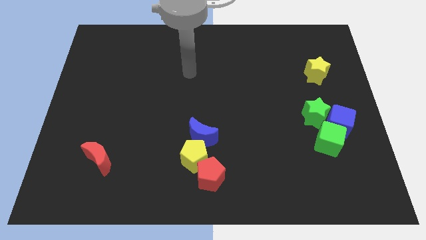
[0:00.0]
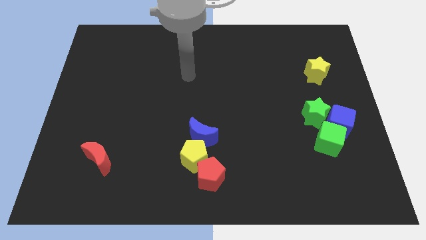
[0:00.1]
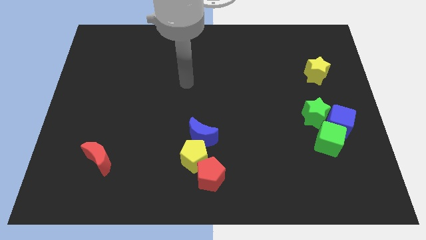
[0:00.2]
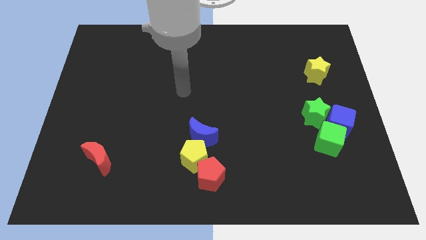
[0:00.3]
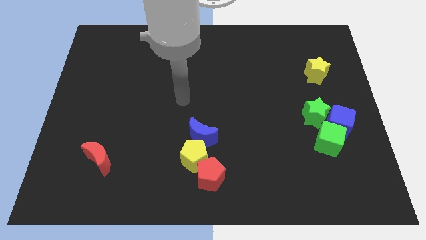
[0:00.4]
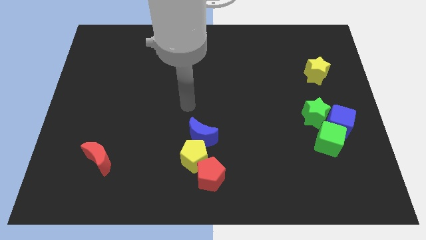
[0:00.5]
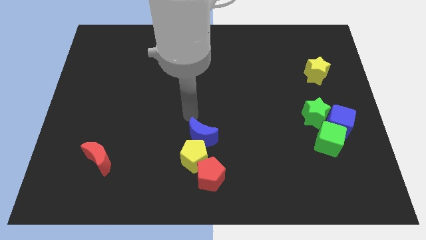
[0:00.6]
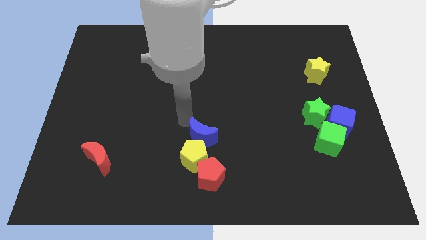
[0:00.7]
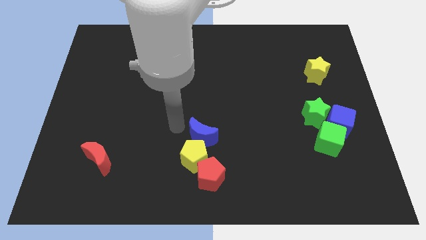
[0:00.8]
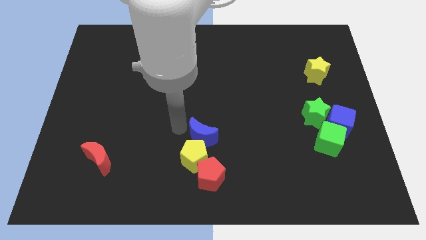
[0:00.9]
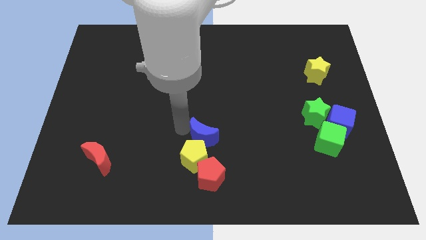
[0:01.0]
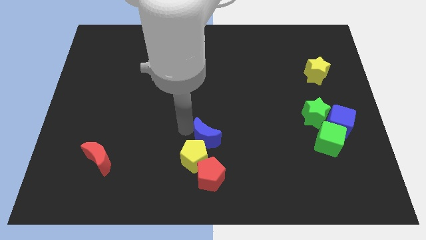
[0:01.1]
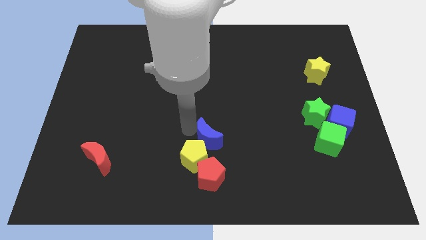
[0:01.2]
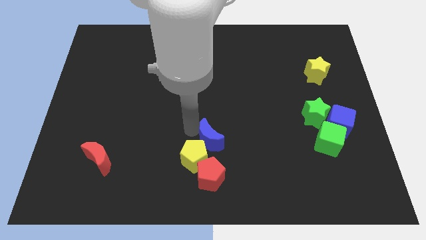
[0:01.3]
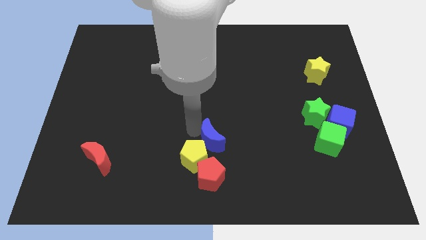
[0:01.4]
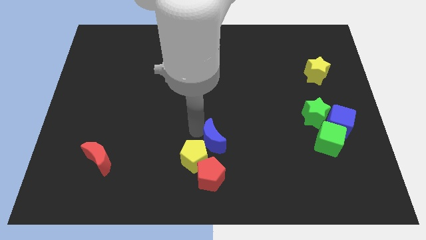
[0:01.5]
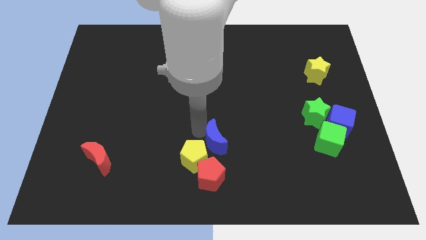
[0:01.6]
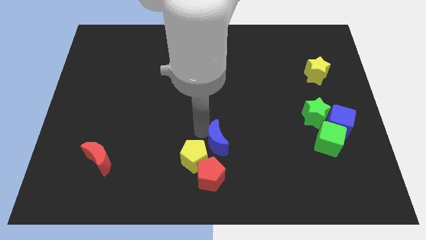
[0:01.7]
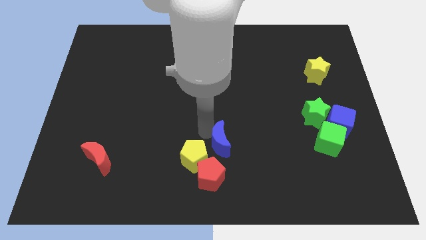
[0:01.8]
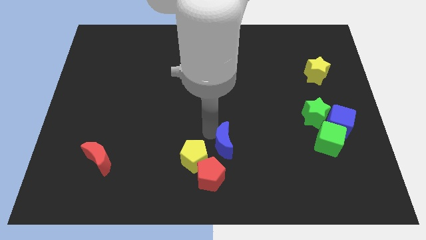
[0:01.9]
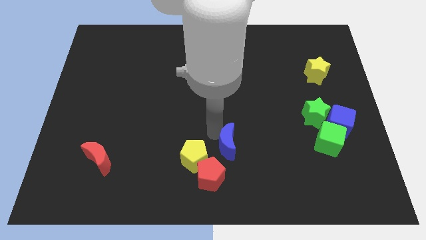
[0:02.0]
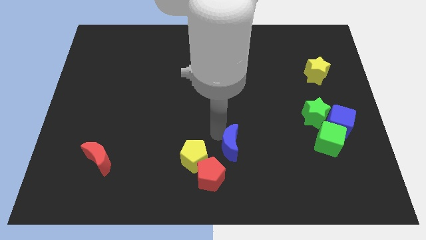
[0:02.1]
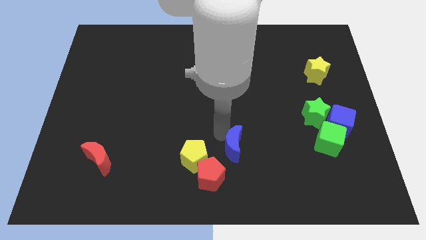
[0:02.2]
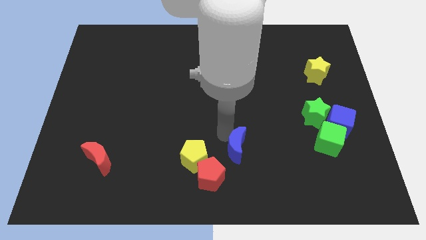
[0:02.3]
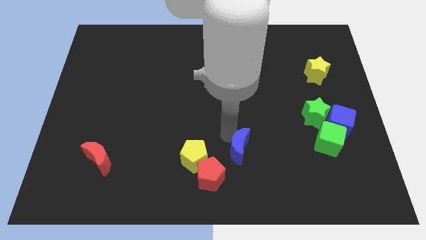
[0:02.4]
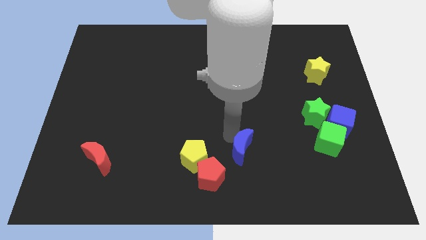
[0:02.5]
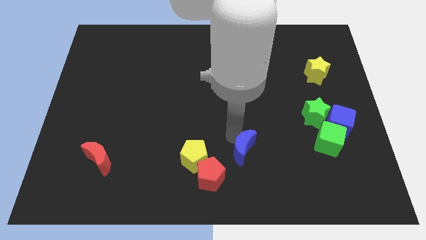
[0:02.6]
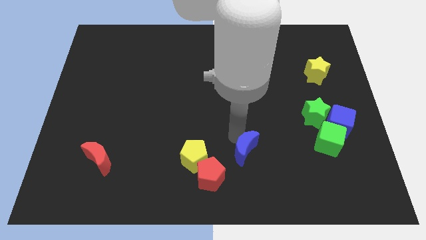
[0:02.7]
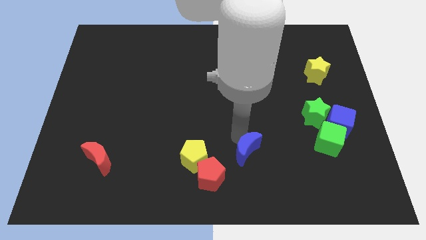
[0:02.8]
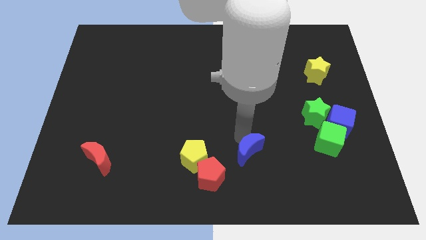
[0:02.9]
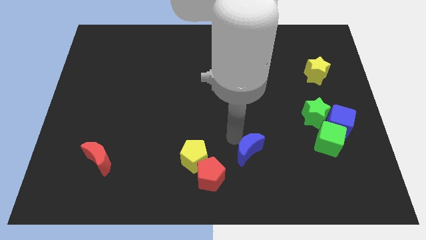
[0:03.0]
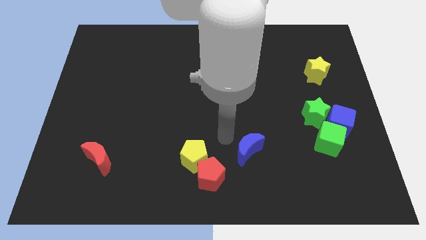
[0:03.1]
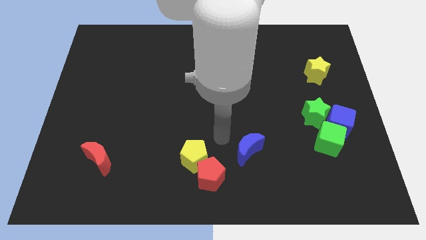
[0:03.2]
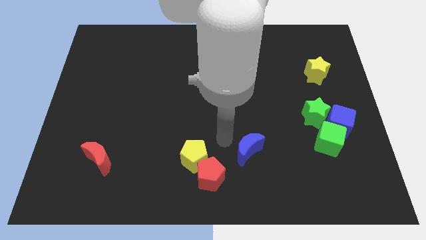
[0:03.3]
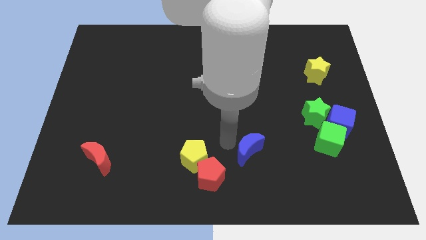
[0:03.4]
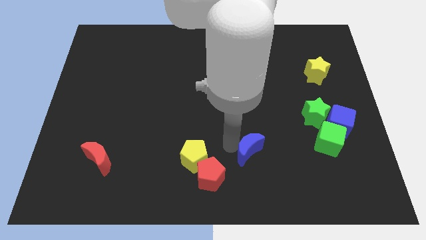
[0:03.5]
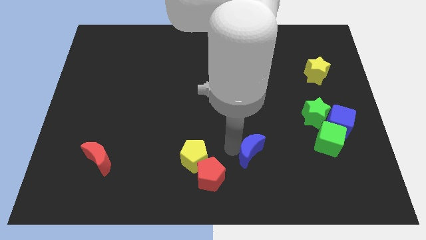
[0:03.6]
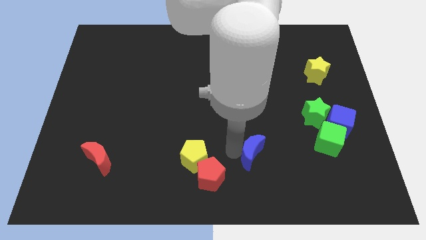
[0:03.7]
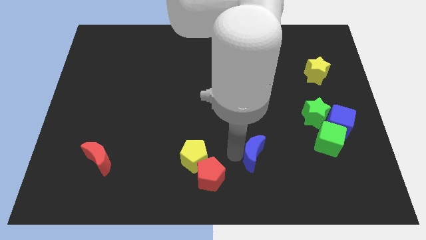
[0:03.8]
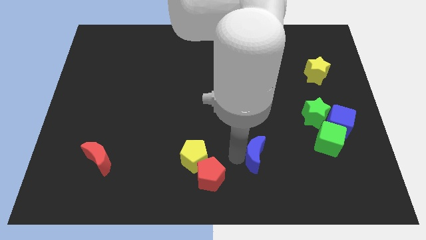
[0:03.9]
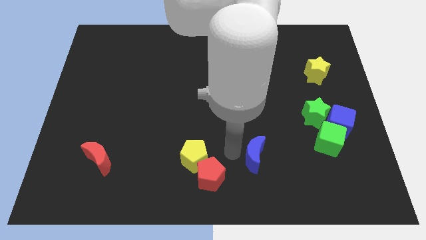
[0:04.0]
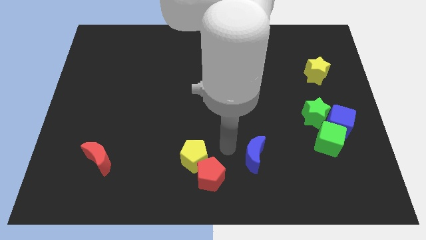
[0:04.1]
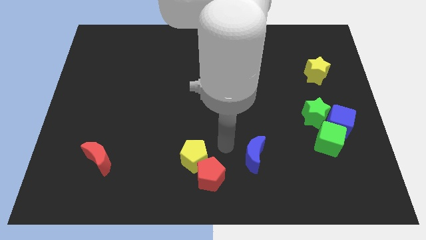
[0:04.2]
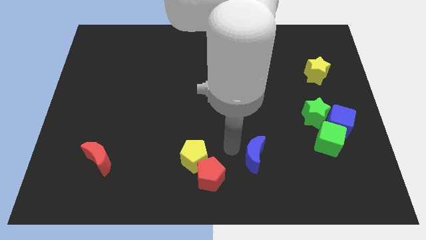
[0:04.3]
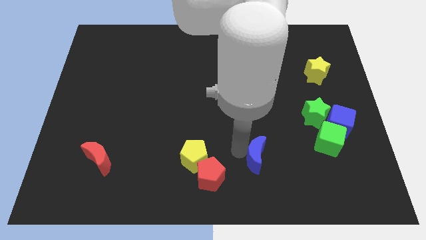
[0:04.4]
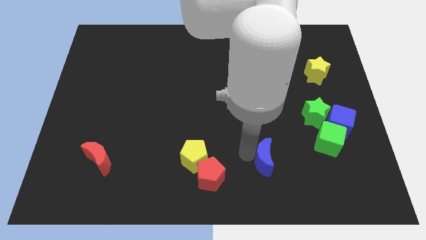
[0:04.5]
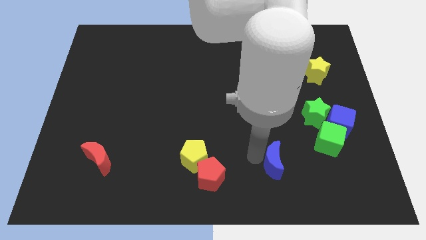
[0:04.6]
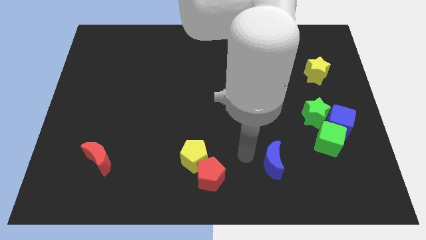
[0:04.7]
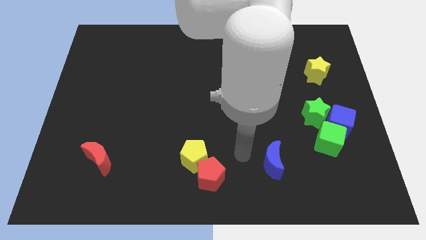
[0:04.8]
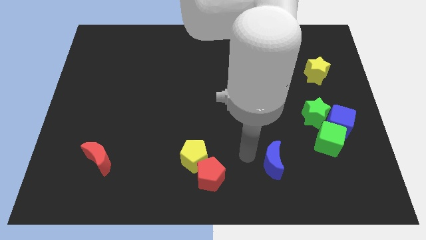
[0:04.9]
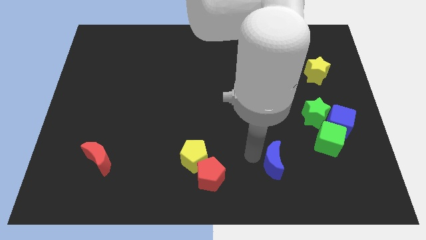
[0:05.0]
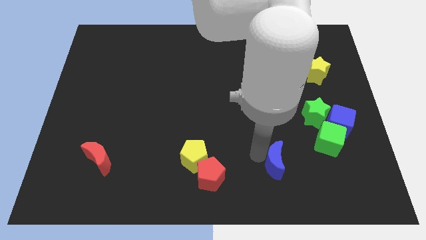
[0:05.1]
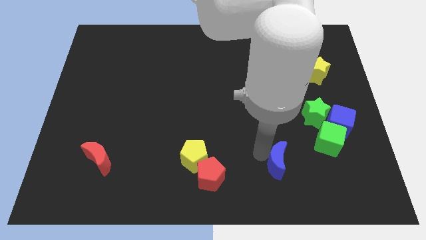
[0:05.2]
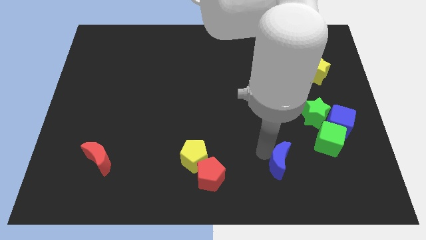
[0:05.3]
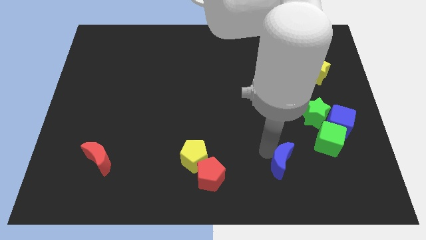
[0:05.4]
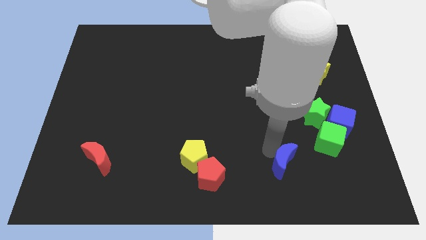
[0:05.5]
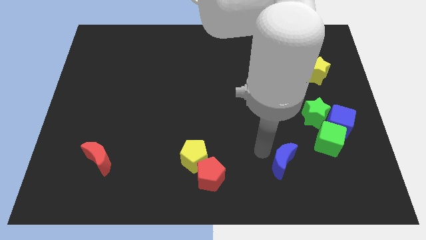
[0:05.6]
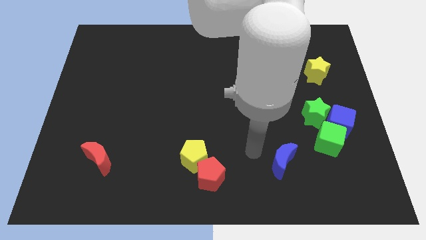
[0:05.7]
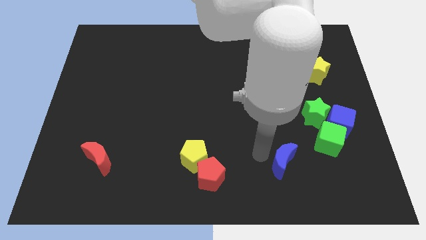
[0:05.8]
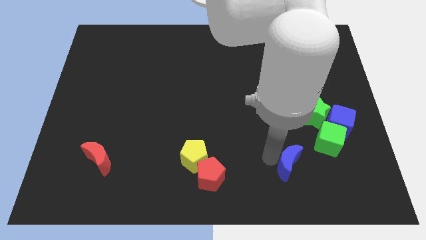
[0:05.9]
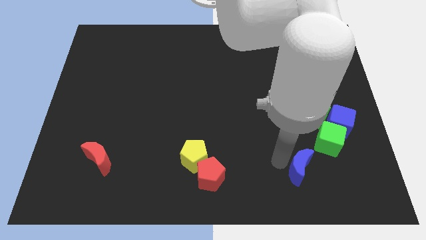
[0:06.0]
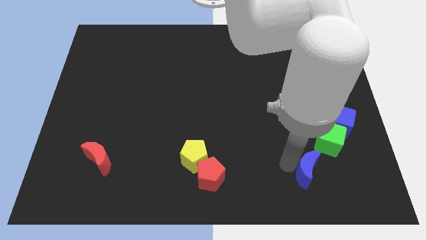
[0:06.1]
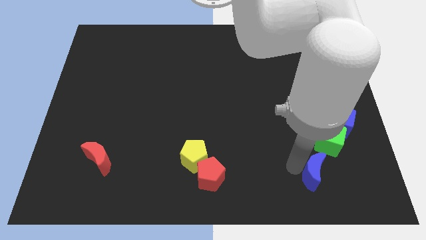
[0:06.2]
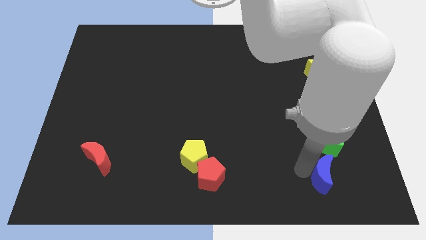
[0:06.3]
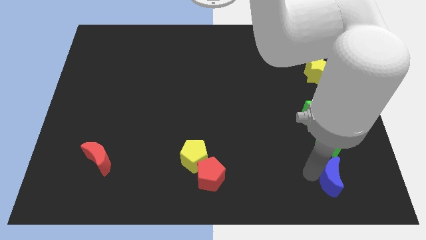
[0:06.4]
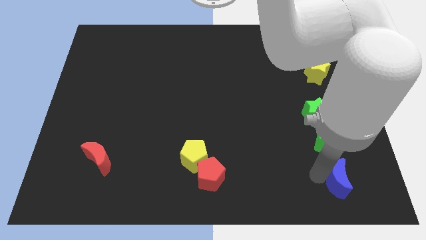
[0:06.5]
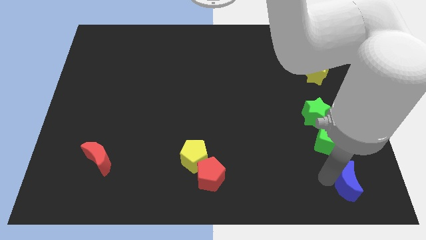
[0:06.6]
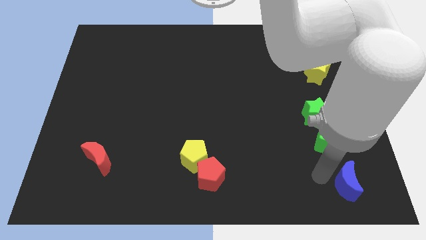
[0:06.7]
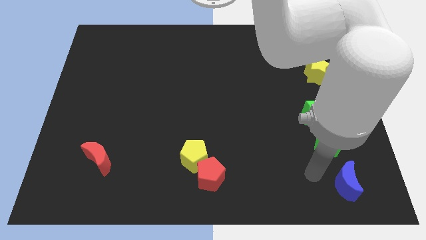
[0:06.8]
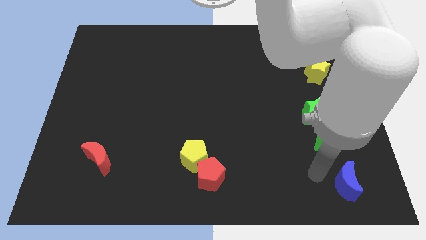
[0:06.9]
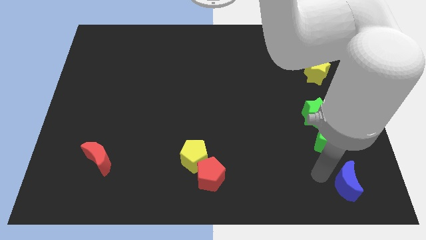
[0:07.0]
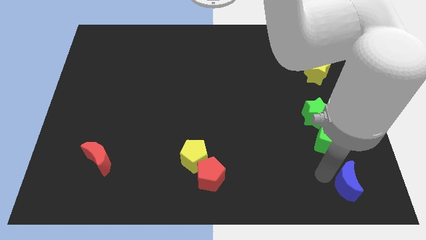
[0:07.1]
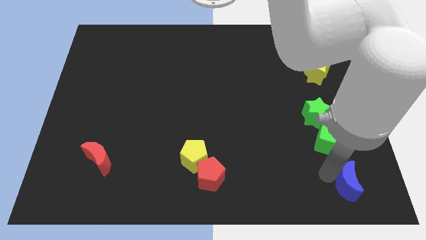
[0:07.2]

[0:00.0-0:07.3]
push the blue moon to the bottom right corner

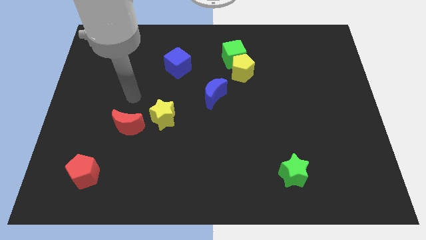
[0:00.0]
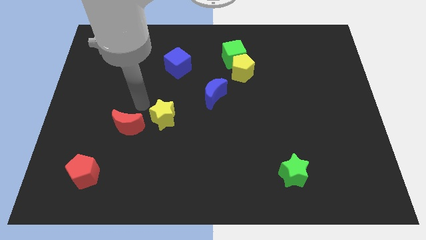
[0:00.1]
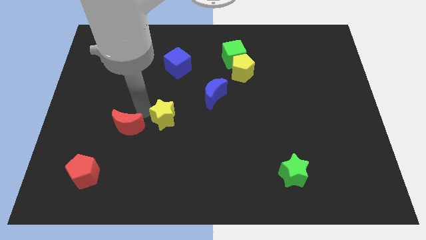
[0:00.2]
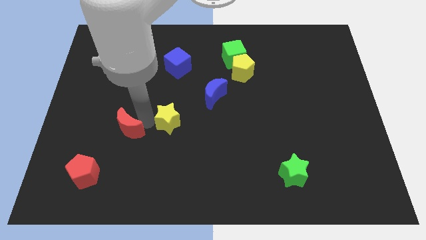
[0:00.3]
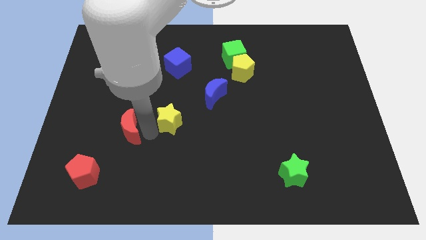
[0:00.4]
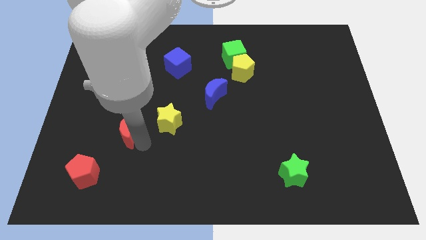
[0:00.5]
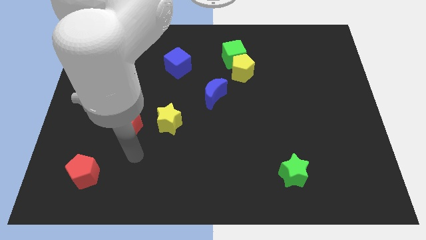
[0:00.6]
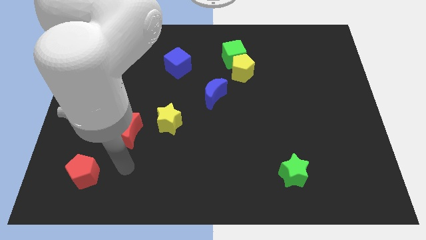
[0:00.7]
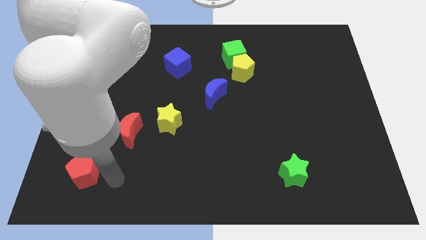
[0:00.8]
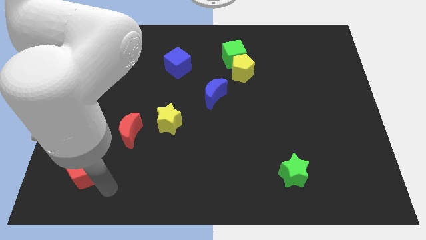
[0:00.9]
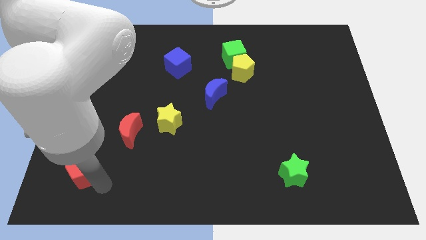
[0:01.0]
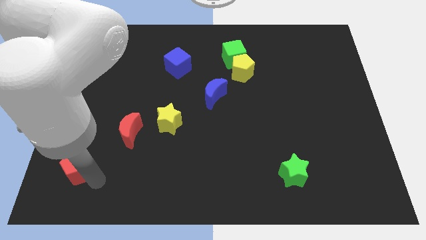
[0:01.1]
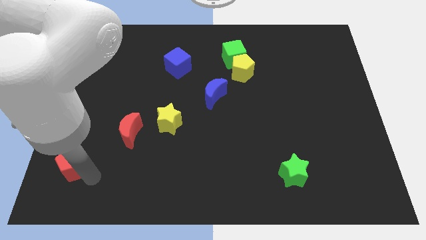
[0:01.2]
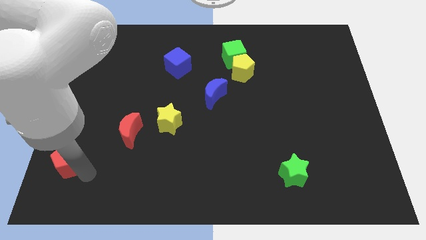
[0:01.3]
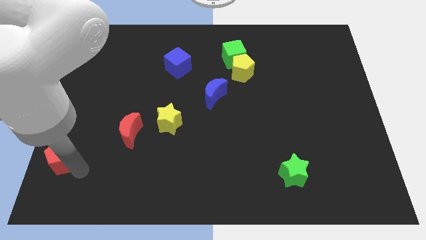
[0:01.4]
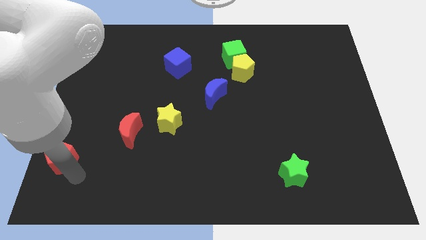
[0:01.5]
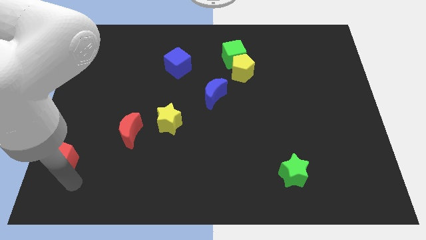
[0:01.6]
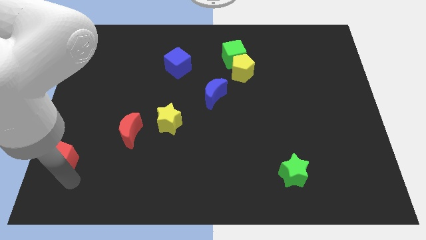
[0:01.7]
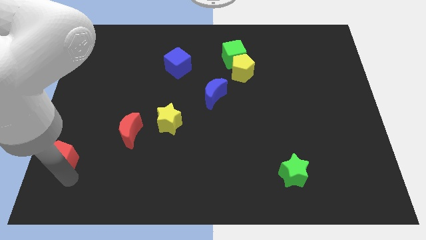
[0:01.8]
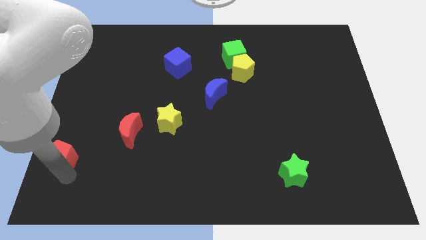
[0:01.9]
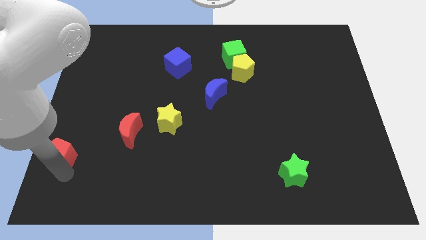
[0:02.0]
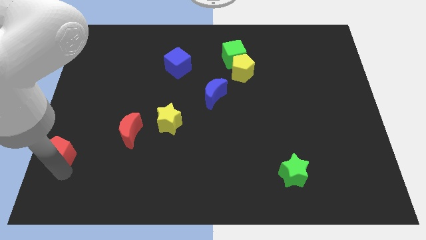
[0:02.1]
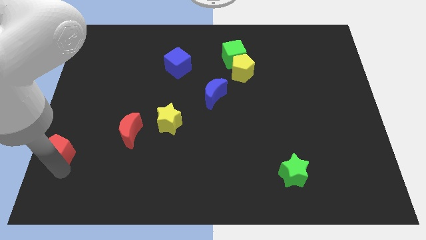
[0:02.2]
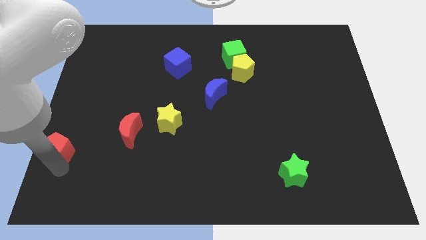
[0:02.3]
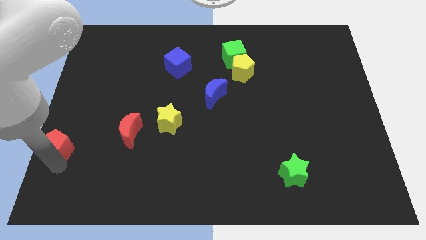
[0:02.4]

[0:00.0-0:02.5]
move the red pentagon to the left side of the board
